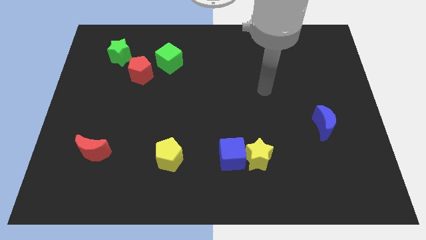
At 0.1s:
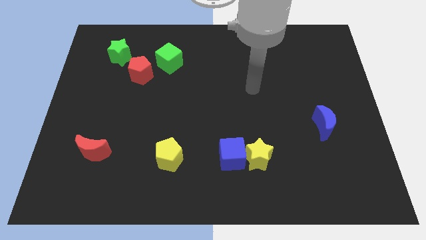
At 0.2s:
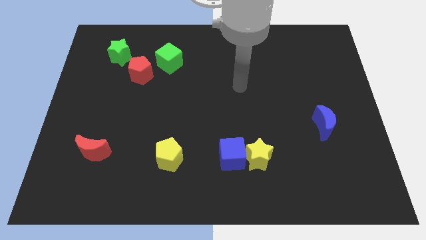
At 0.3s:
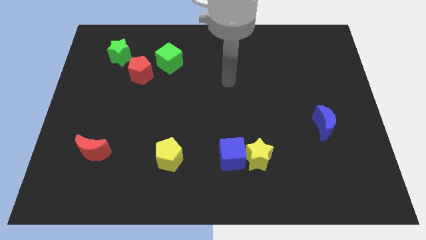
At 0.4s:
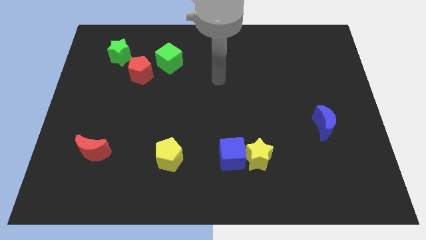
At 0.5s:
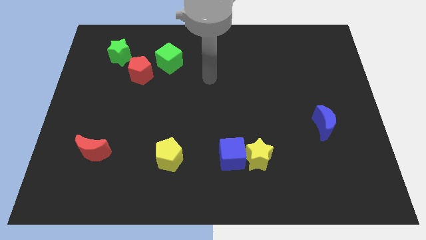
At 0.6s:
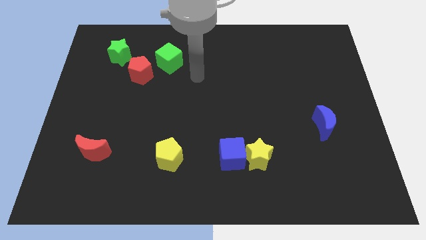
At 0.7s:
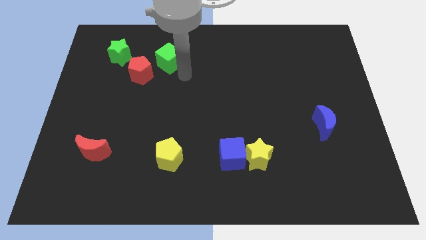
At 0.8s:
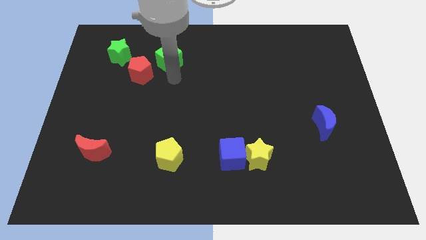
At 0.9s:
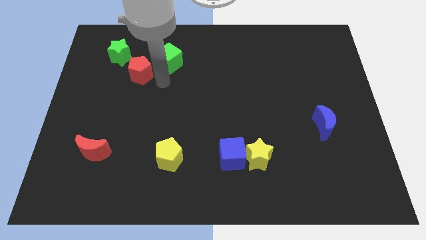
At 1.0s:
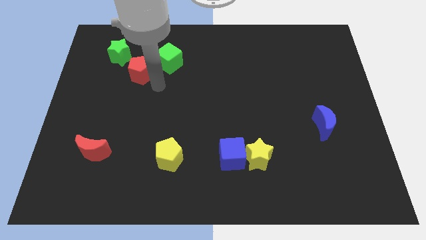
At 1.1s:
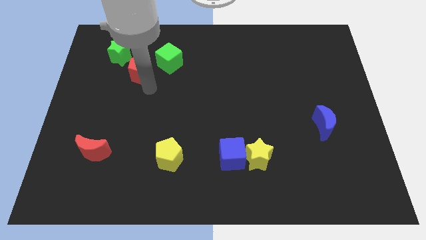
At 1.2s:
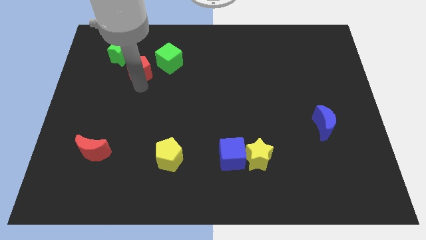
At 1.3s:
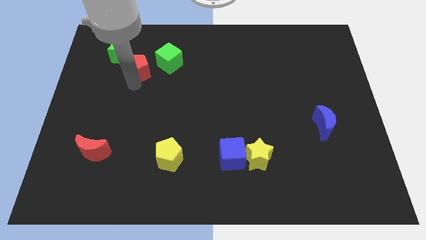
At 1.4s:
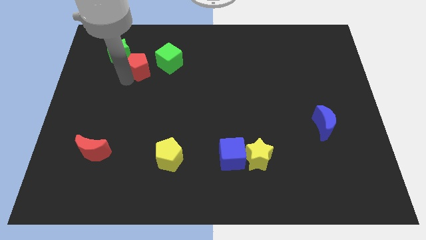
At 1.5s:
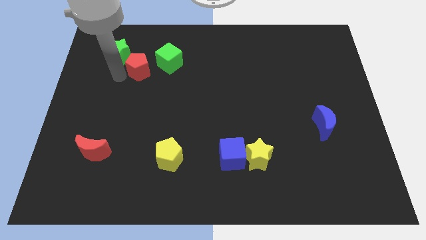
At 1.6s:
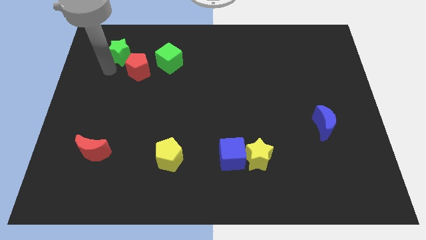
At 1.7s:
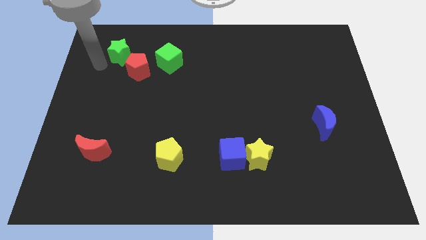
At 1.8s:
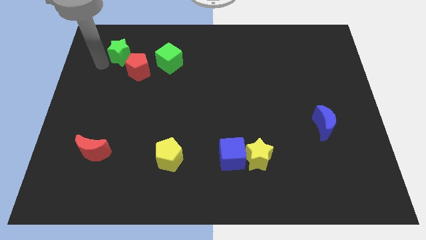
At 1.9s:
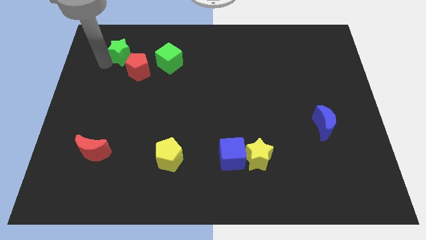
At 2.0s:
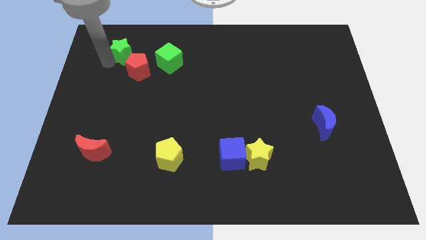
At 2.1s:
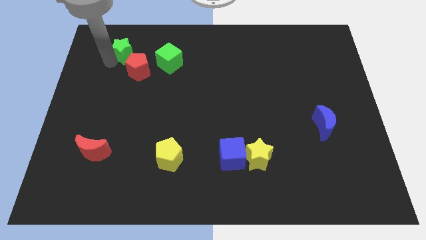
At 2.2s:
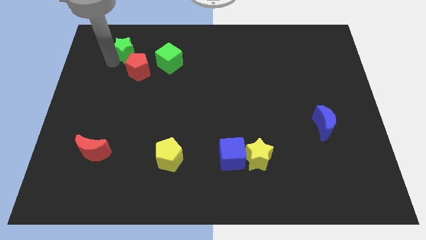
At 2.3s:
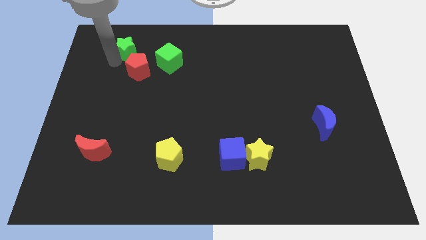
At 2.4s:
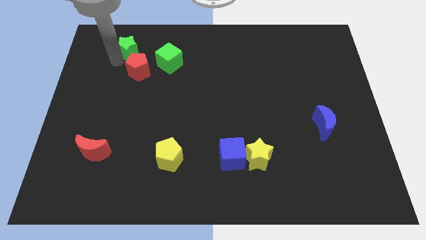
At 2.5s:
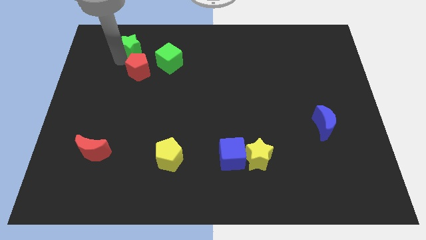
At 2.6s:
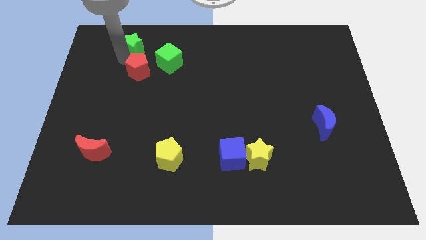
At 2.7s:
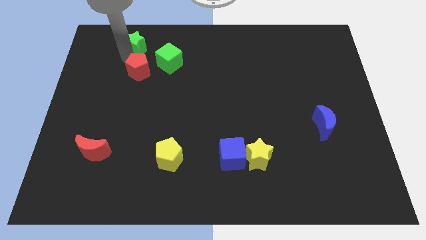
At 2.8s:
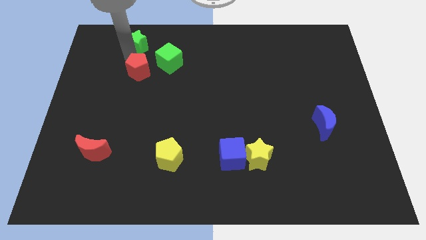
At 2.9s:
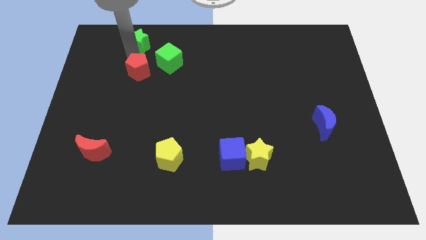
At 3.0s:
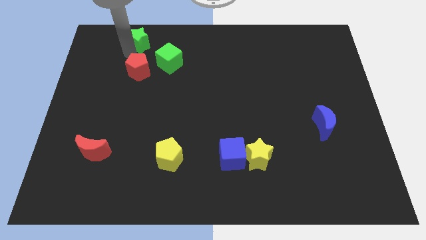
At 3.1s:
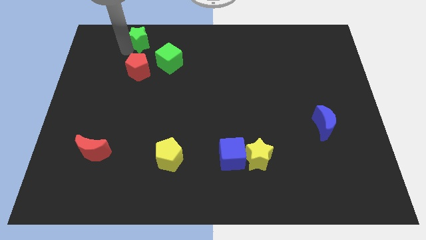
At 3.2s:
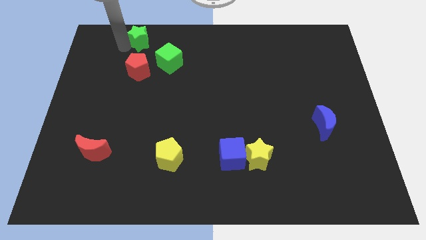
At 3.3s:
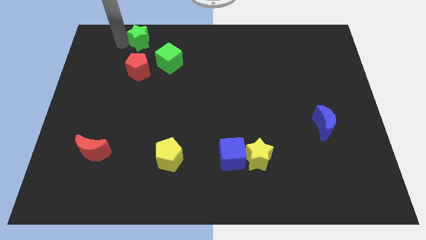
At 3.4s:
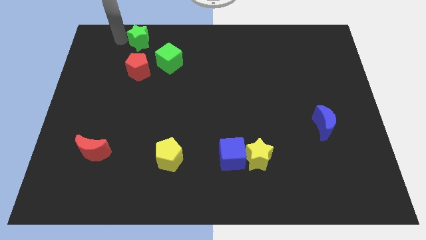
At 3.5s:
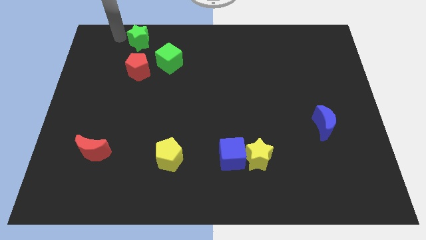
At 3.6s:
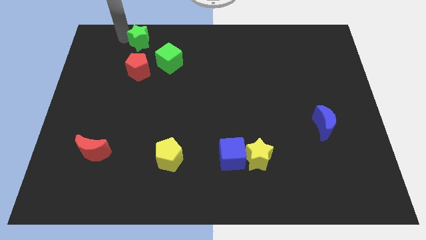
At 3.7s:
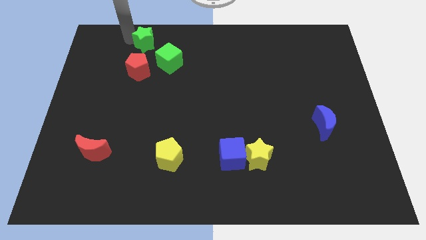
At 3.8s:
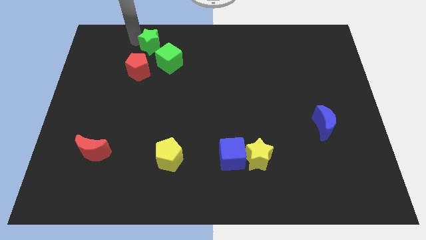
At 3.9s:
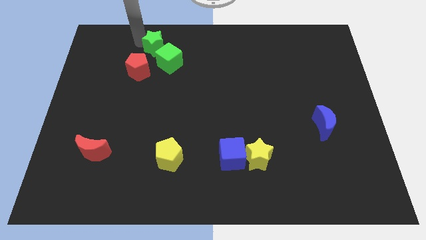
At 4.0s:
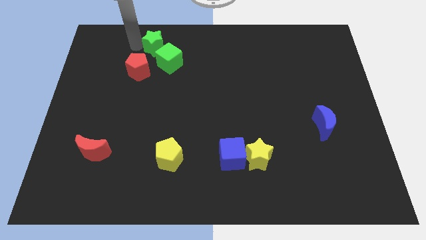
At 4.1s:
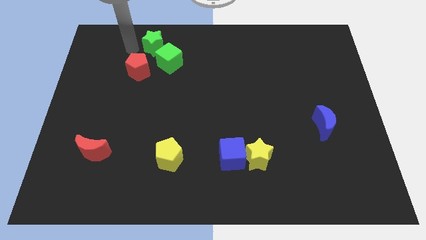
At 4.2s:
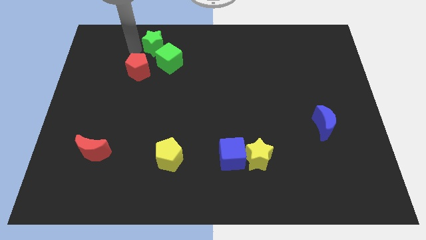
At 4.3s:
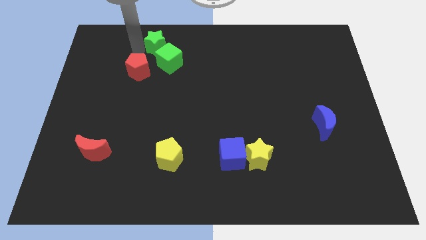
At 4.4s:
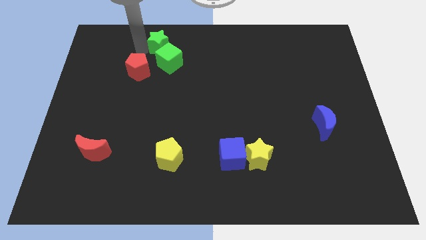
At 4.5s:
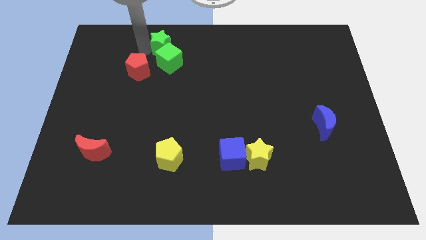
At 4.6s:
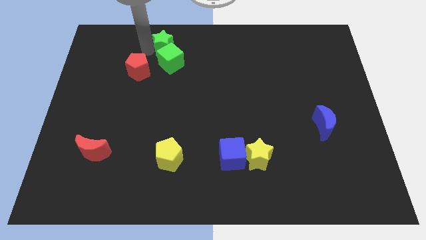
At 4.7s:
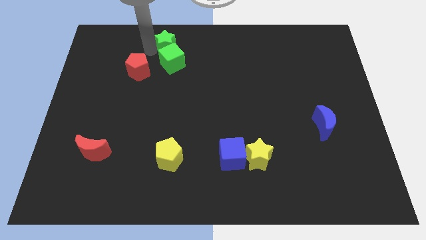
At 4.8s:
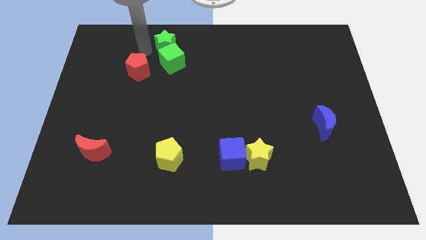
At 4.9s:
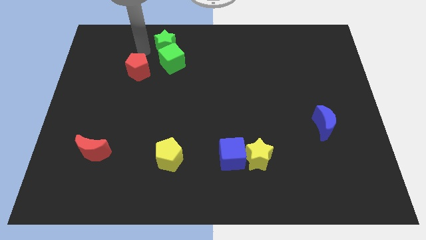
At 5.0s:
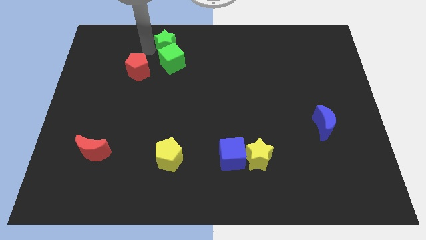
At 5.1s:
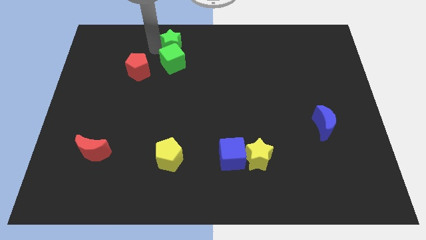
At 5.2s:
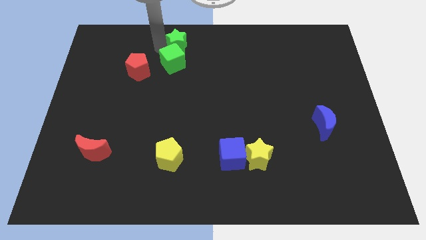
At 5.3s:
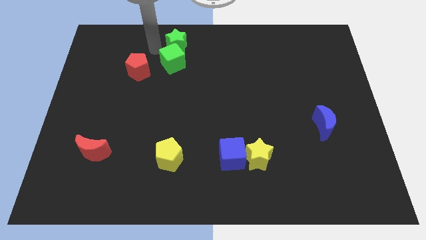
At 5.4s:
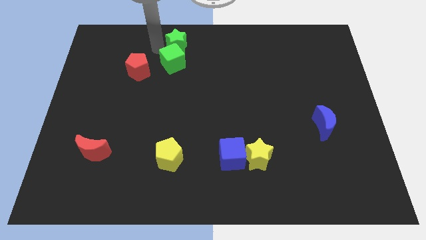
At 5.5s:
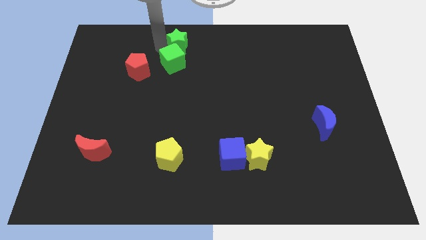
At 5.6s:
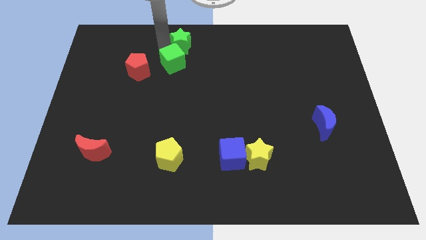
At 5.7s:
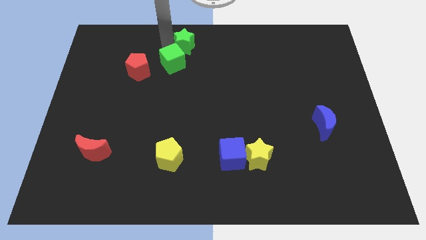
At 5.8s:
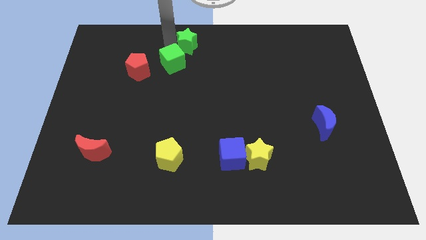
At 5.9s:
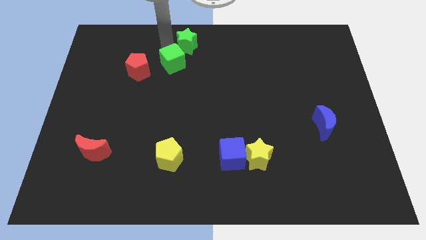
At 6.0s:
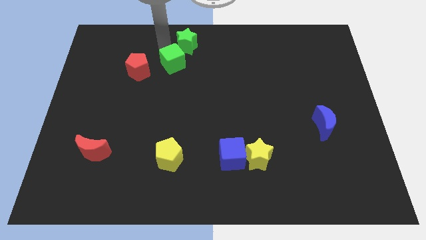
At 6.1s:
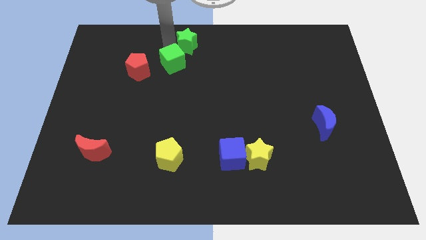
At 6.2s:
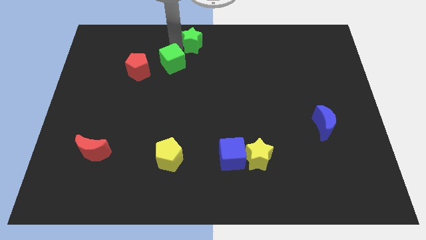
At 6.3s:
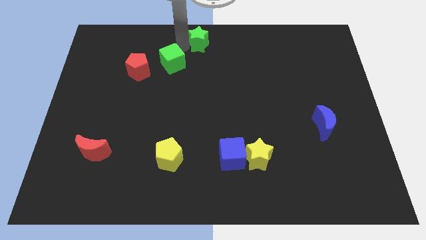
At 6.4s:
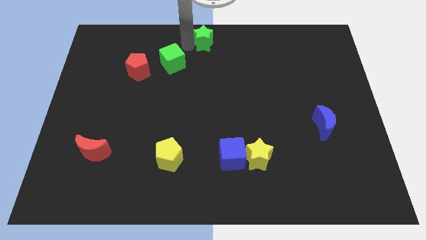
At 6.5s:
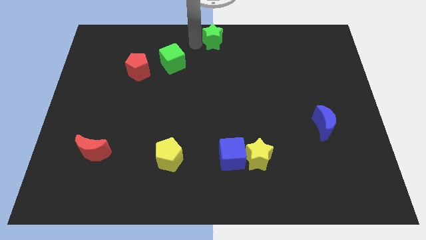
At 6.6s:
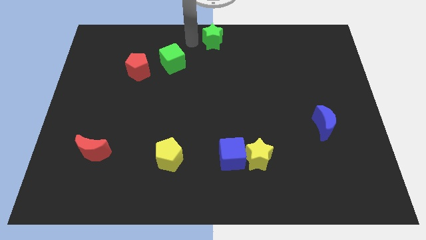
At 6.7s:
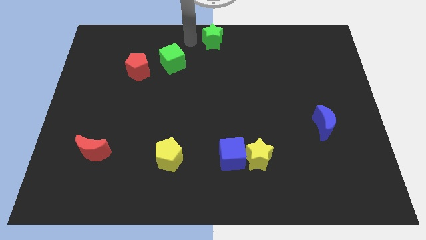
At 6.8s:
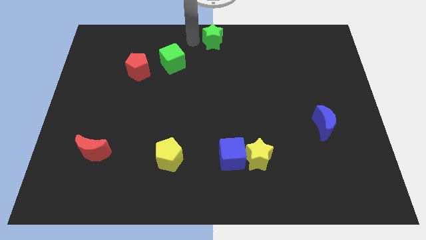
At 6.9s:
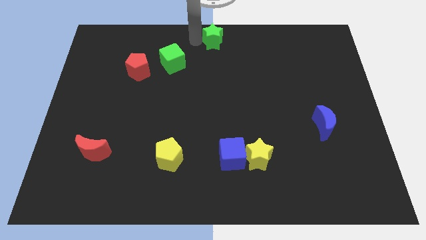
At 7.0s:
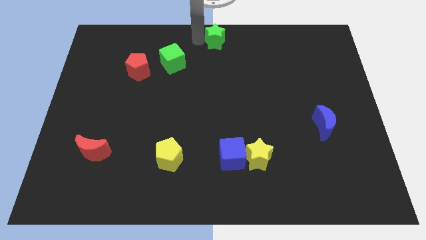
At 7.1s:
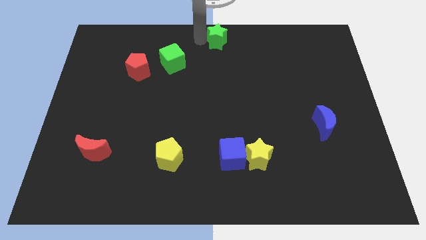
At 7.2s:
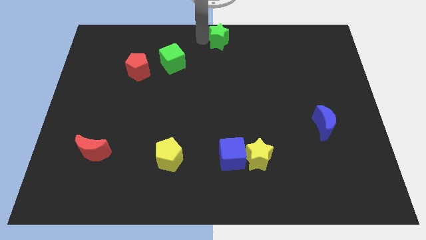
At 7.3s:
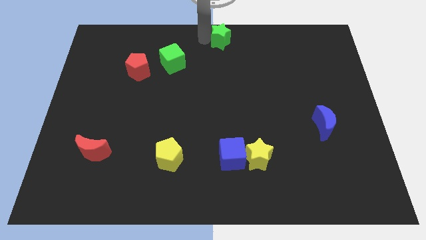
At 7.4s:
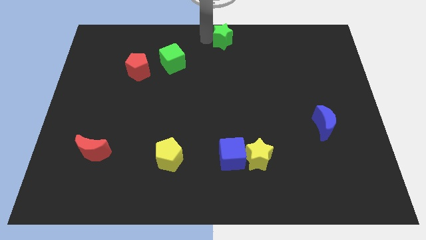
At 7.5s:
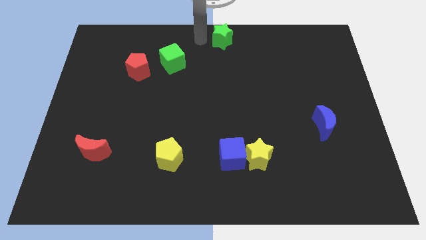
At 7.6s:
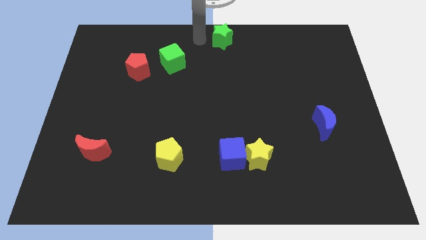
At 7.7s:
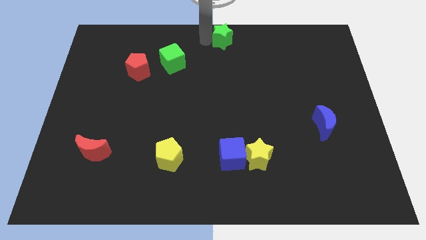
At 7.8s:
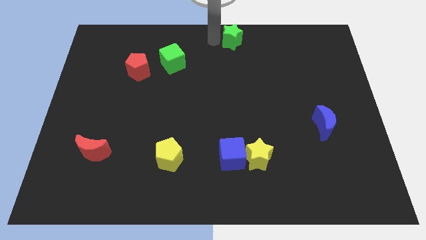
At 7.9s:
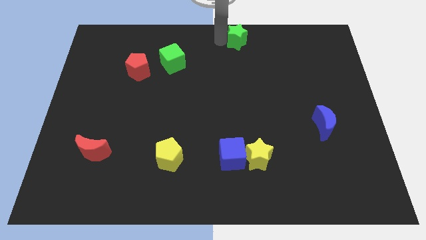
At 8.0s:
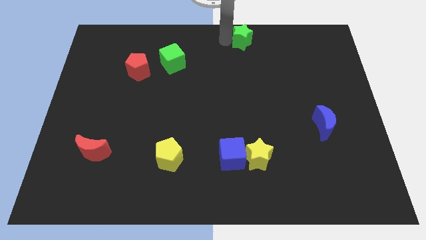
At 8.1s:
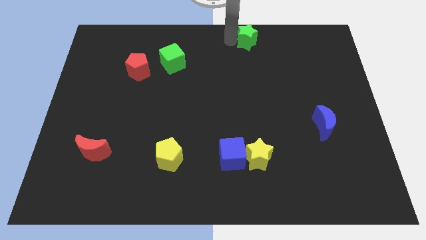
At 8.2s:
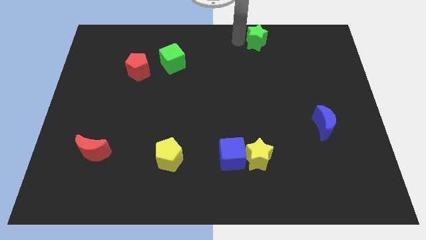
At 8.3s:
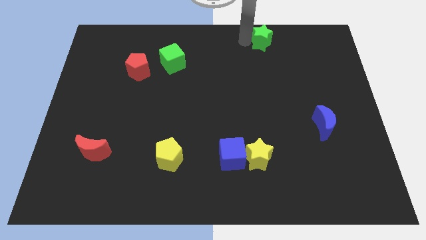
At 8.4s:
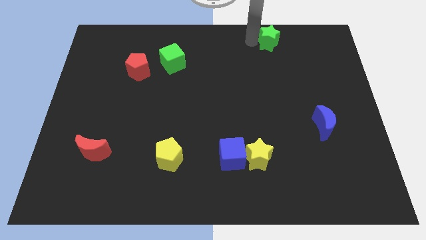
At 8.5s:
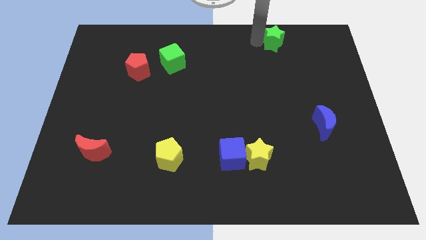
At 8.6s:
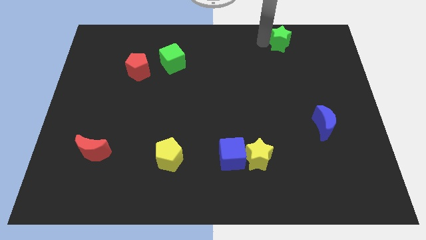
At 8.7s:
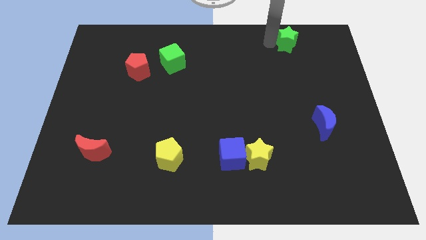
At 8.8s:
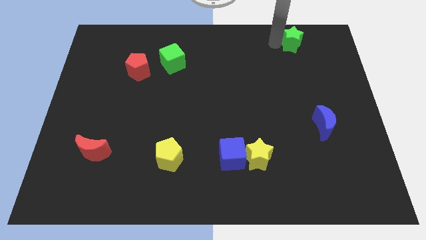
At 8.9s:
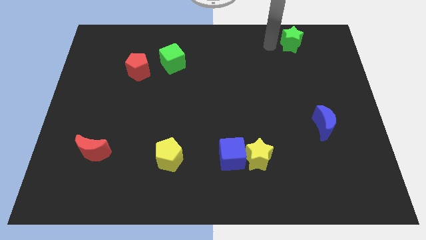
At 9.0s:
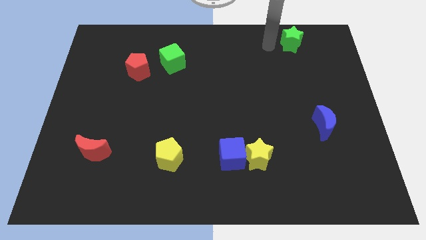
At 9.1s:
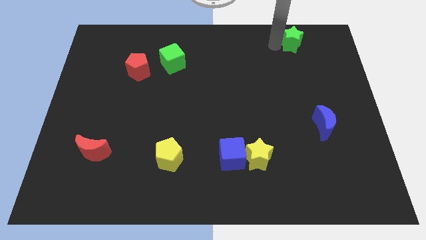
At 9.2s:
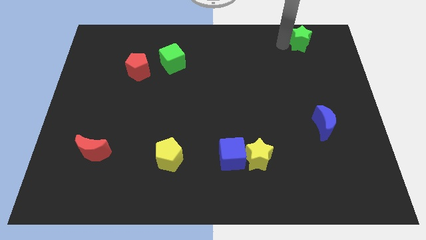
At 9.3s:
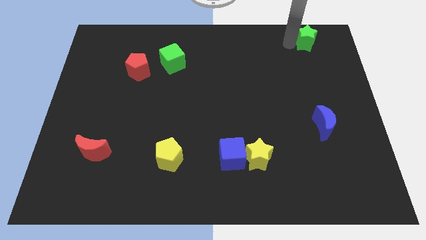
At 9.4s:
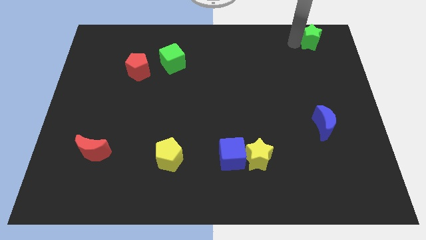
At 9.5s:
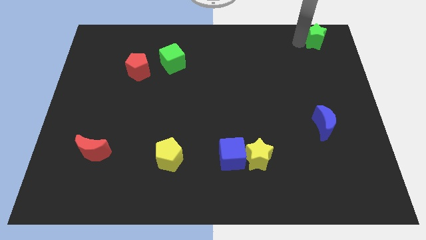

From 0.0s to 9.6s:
put the green star to the upper right corner
